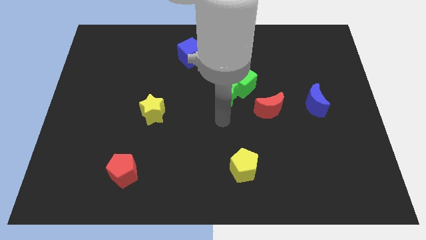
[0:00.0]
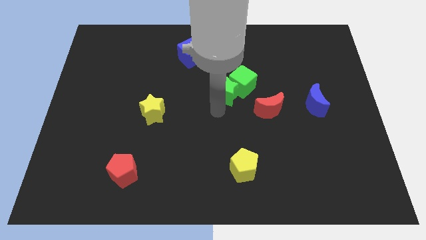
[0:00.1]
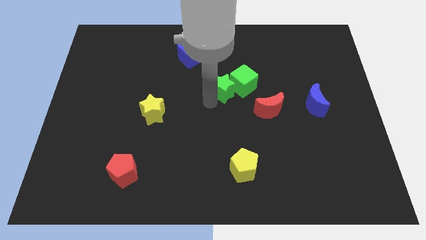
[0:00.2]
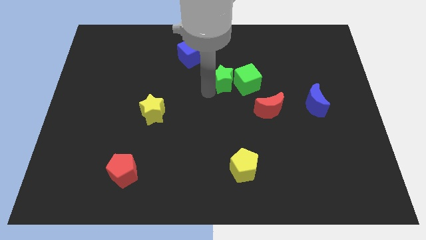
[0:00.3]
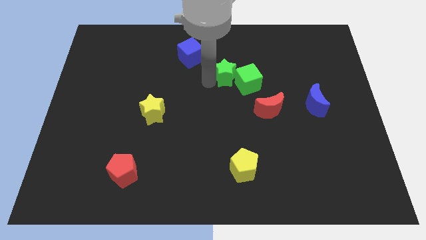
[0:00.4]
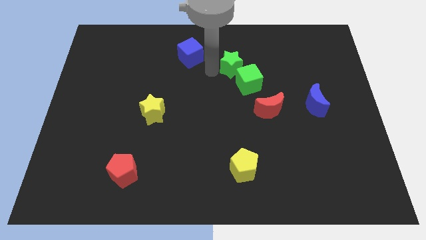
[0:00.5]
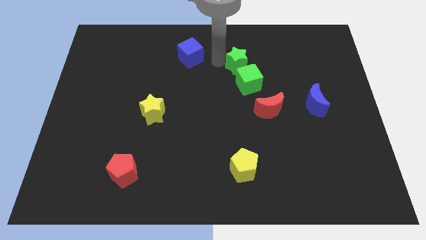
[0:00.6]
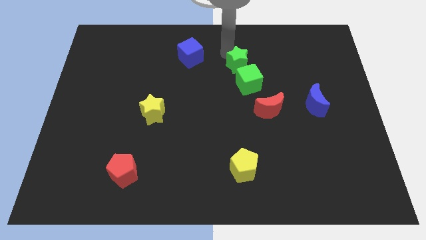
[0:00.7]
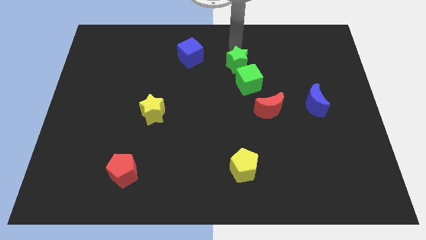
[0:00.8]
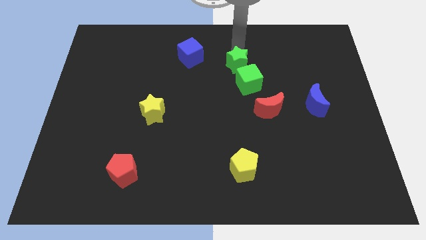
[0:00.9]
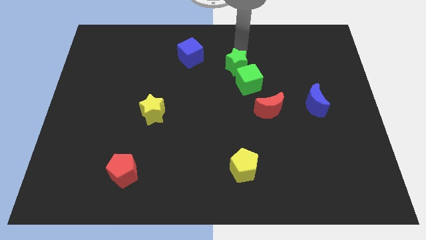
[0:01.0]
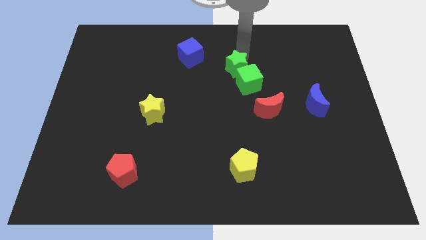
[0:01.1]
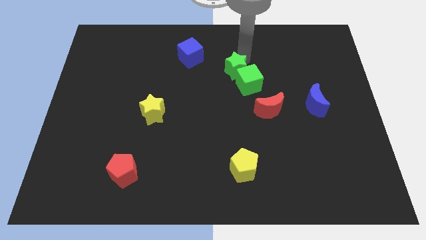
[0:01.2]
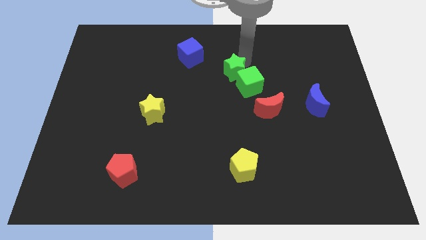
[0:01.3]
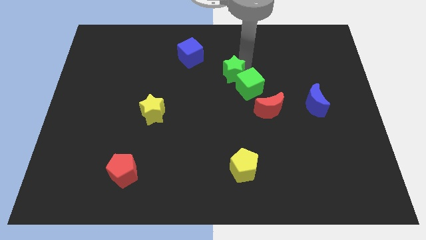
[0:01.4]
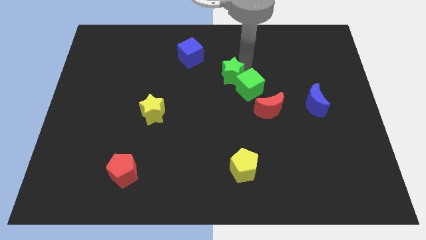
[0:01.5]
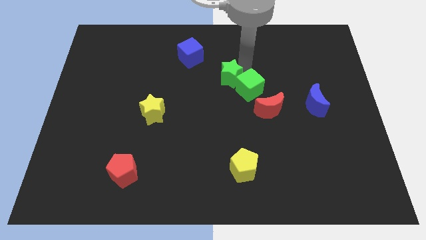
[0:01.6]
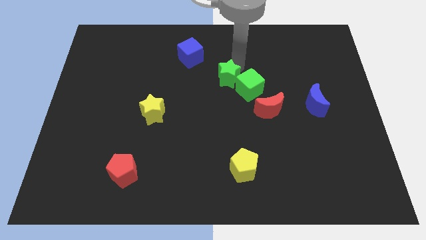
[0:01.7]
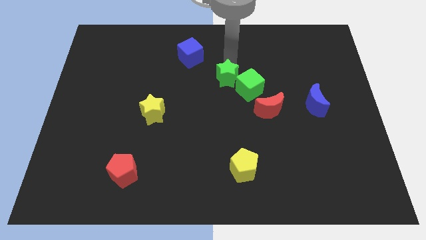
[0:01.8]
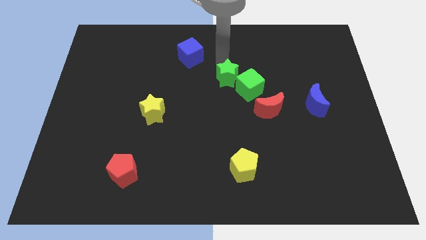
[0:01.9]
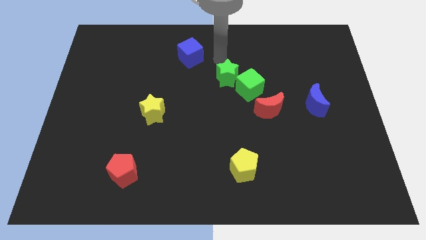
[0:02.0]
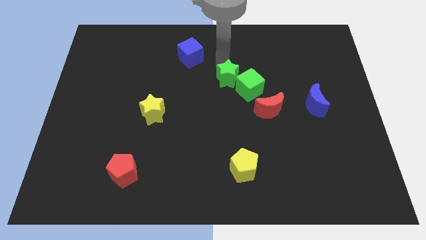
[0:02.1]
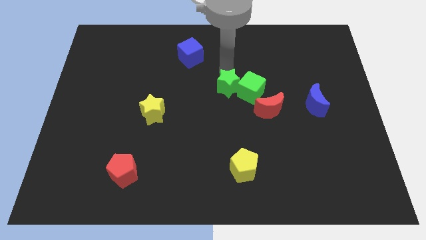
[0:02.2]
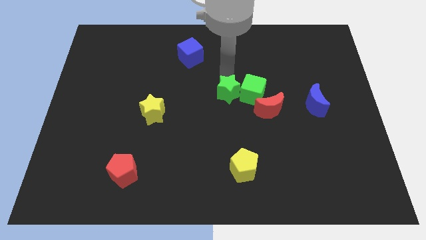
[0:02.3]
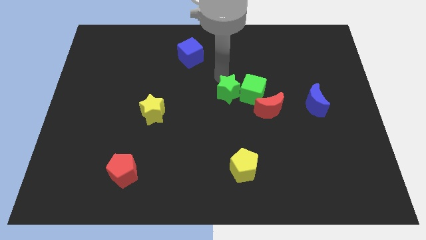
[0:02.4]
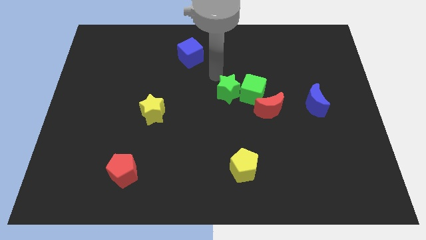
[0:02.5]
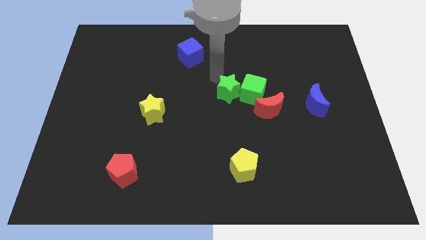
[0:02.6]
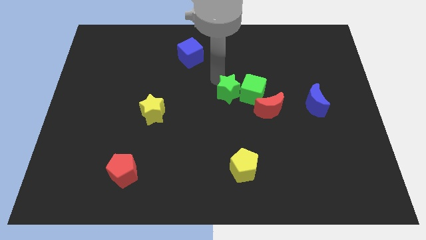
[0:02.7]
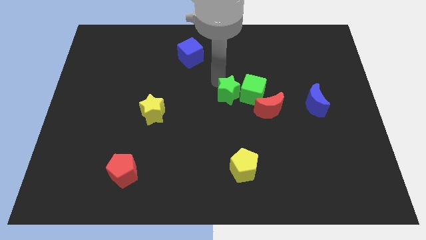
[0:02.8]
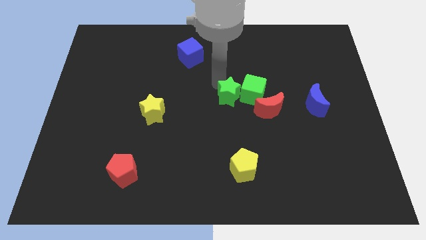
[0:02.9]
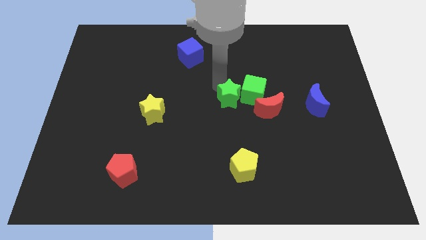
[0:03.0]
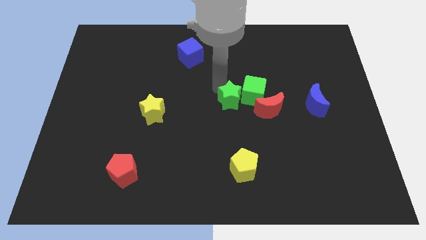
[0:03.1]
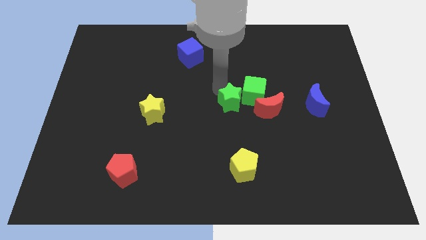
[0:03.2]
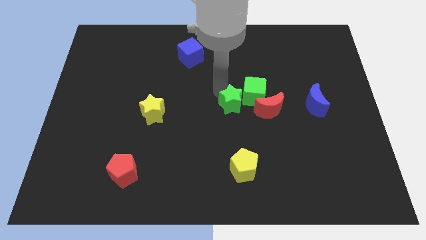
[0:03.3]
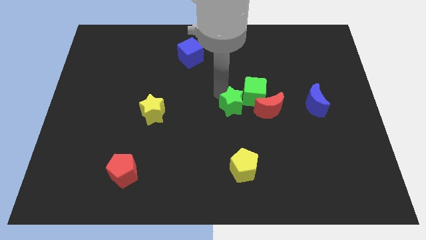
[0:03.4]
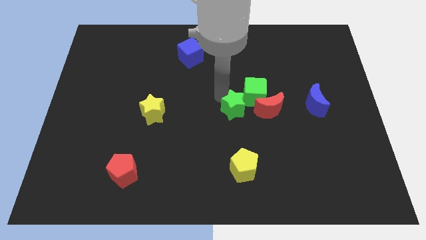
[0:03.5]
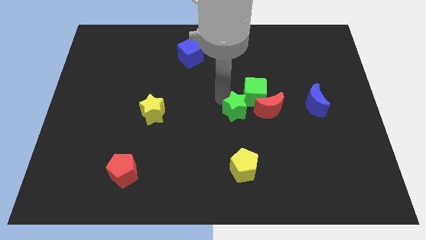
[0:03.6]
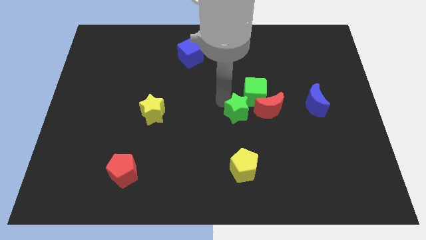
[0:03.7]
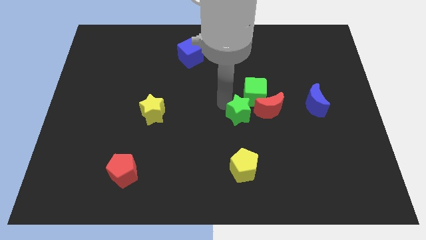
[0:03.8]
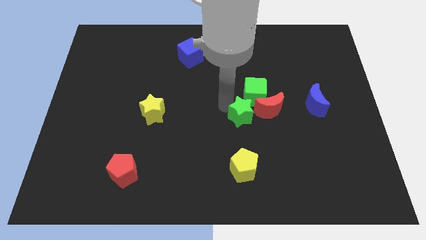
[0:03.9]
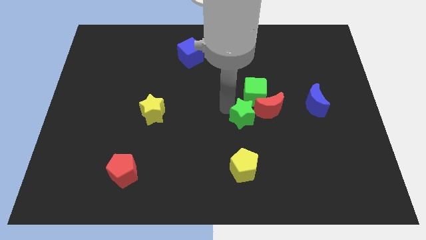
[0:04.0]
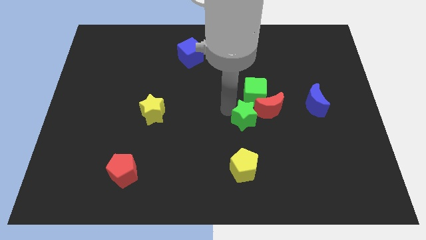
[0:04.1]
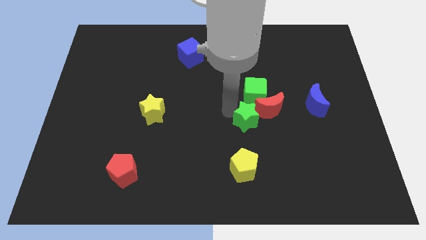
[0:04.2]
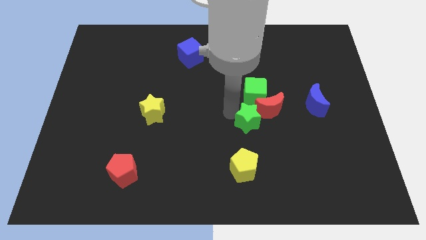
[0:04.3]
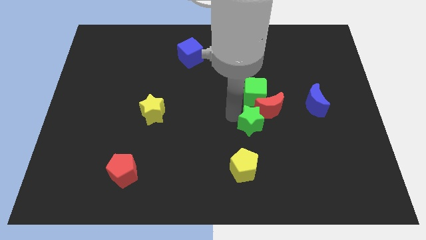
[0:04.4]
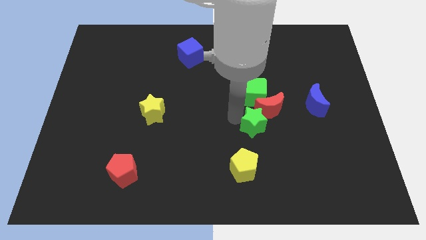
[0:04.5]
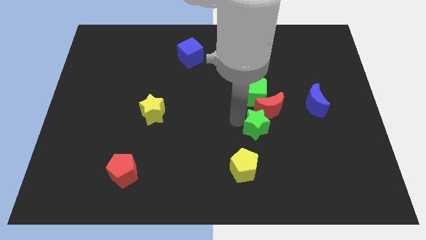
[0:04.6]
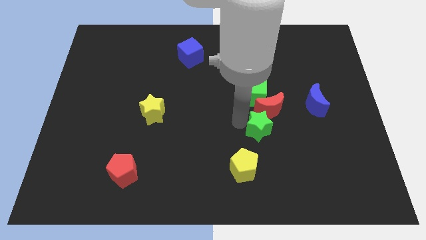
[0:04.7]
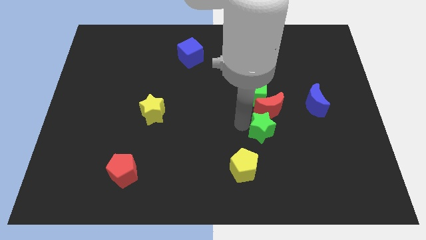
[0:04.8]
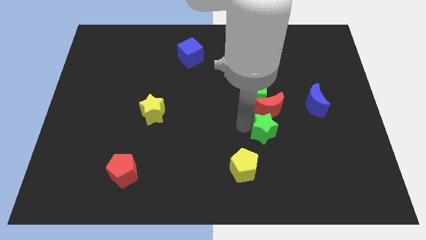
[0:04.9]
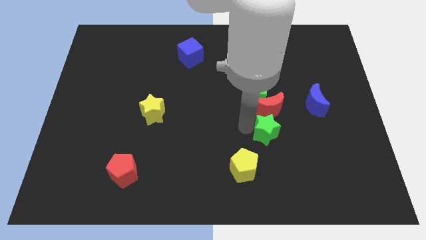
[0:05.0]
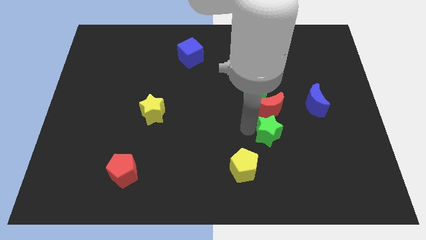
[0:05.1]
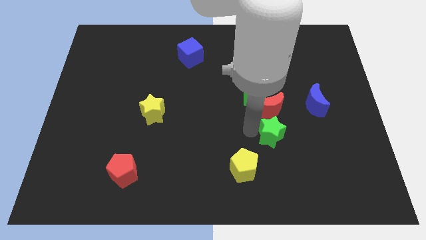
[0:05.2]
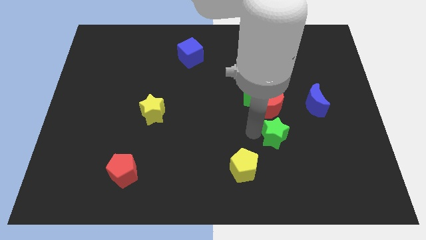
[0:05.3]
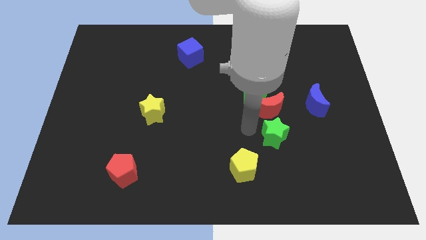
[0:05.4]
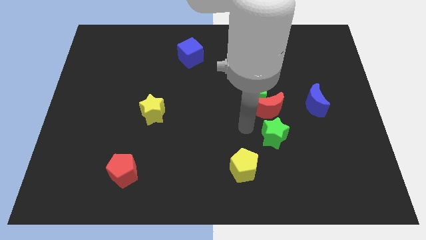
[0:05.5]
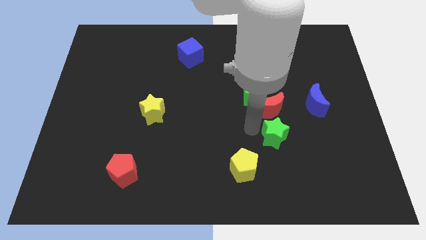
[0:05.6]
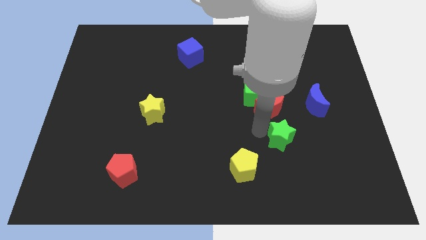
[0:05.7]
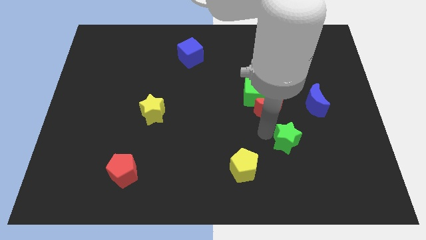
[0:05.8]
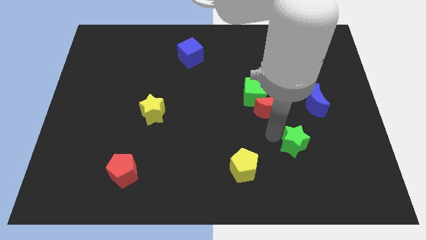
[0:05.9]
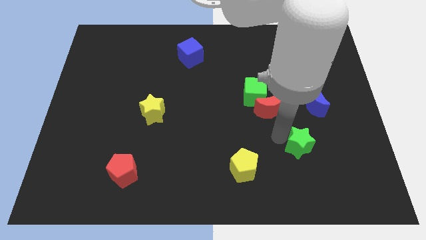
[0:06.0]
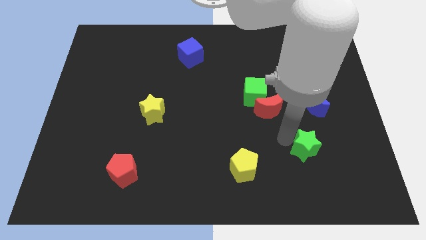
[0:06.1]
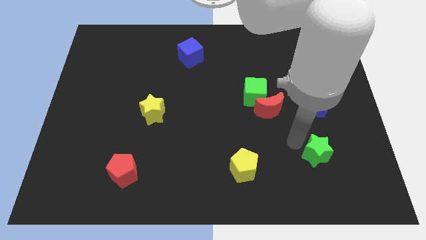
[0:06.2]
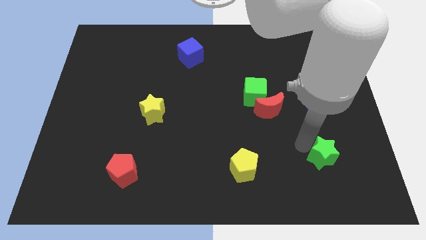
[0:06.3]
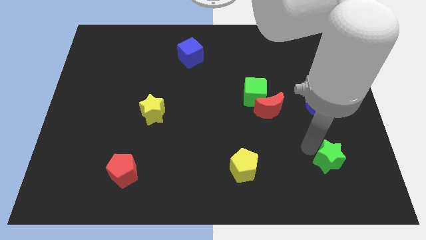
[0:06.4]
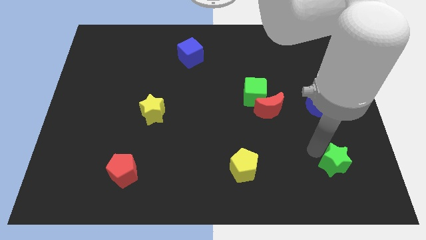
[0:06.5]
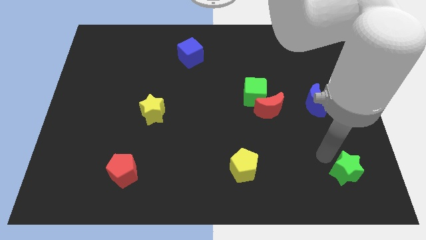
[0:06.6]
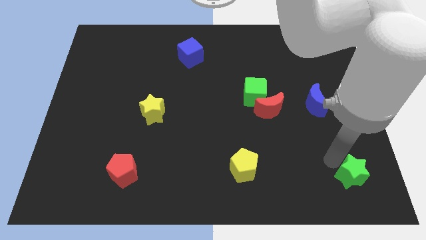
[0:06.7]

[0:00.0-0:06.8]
put the green star to the lower right corner
